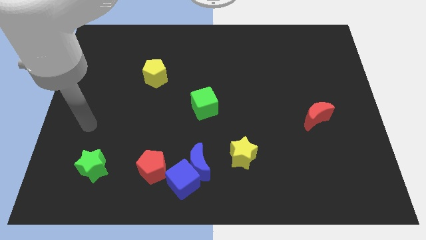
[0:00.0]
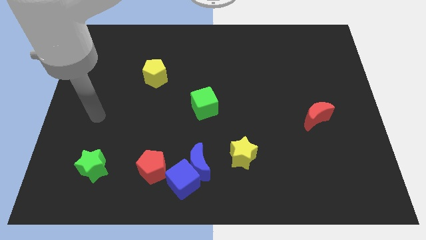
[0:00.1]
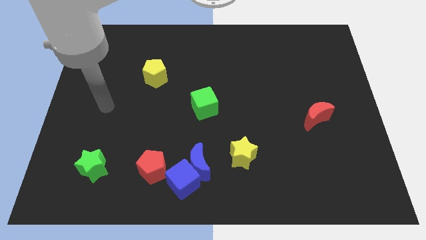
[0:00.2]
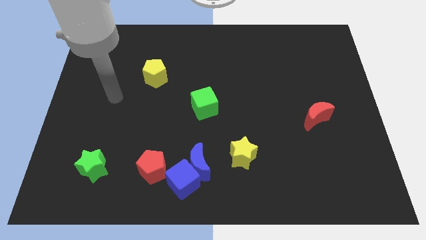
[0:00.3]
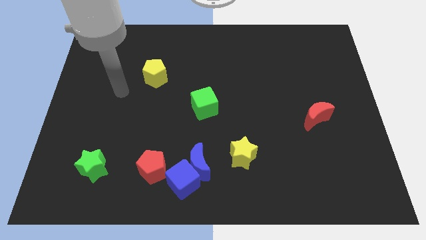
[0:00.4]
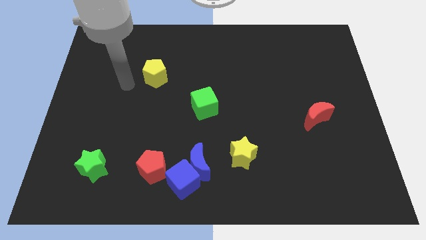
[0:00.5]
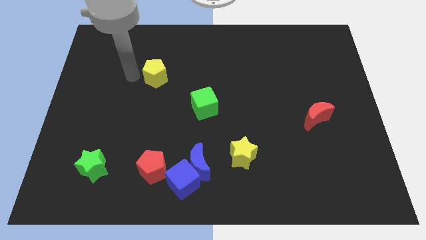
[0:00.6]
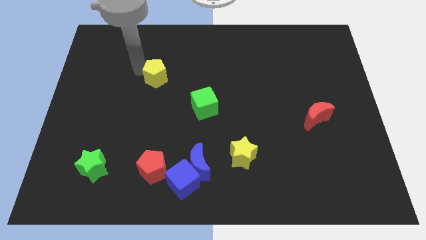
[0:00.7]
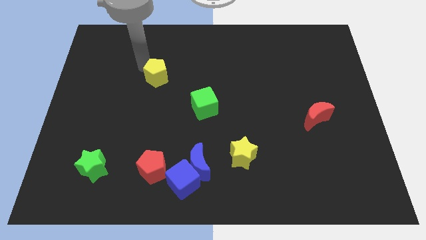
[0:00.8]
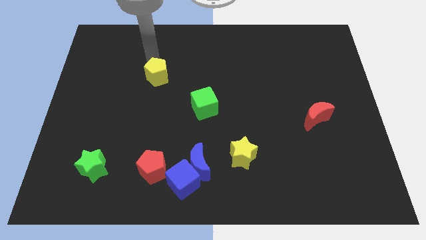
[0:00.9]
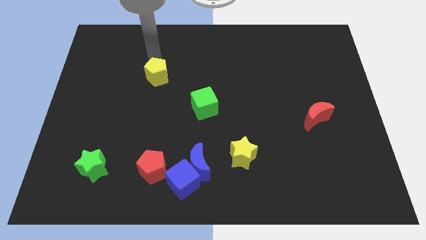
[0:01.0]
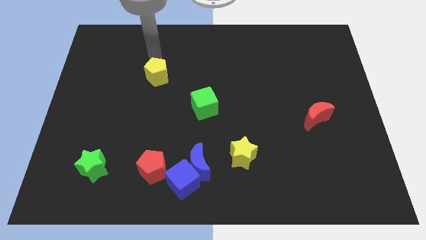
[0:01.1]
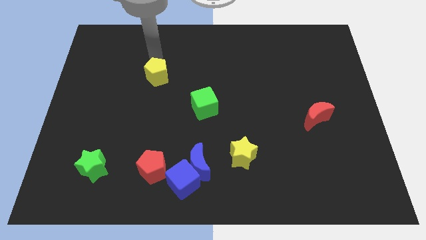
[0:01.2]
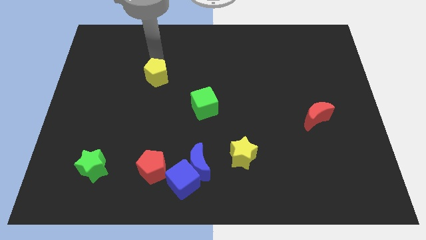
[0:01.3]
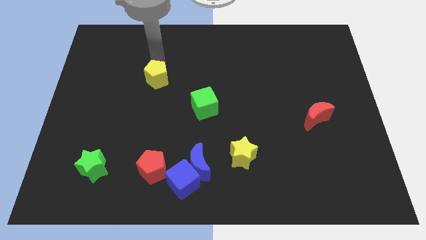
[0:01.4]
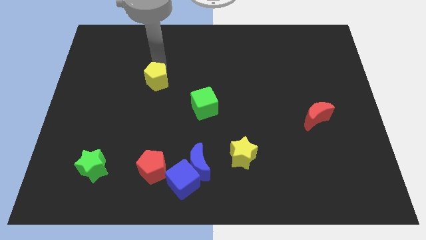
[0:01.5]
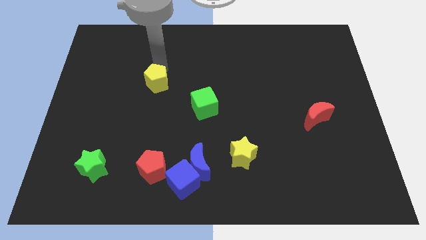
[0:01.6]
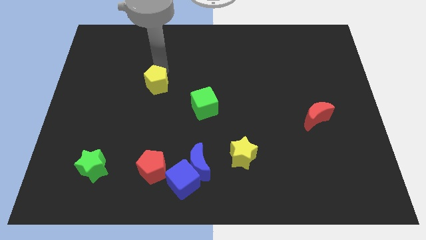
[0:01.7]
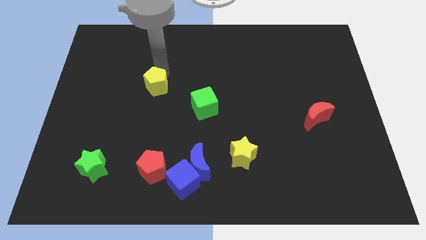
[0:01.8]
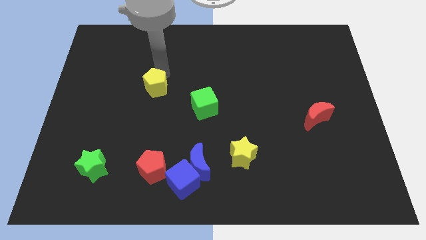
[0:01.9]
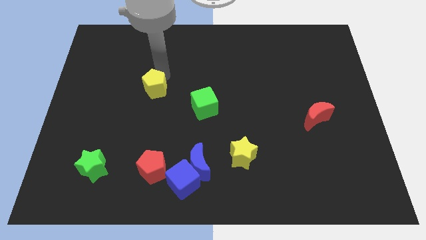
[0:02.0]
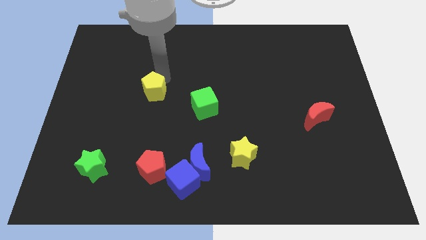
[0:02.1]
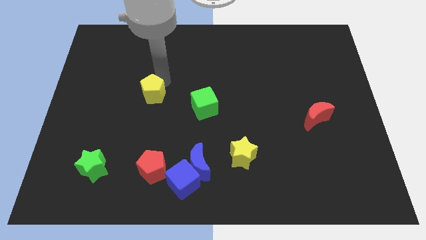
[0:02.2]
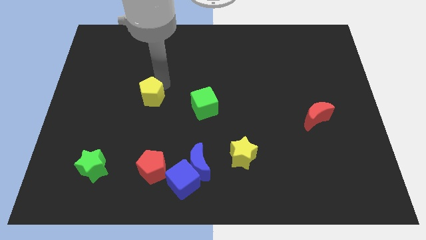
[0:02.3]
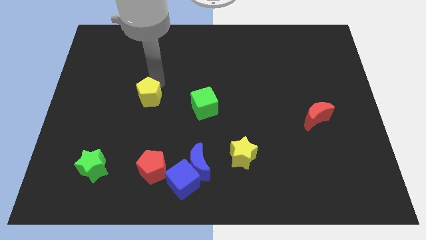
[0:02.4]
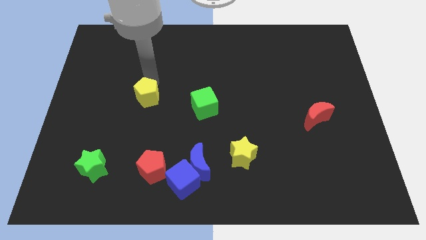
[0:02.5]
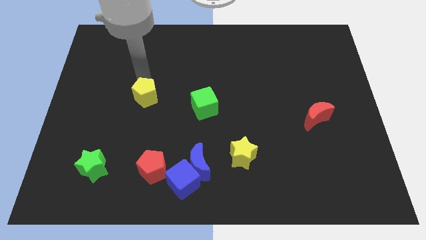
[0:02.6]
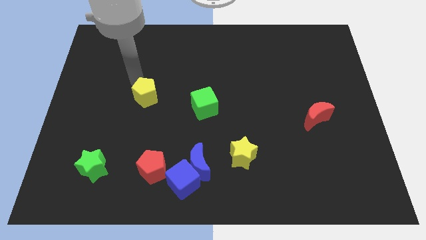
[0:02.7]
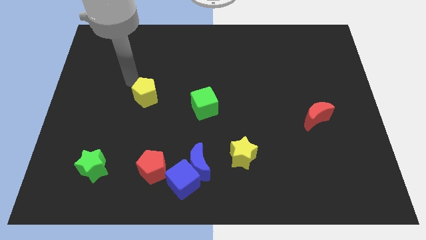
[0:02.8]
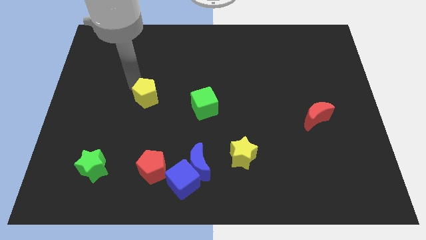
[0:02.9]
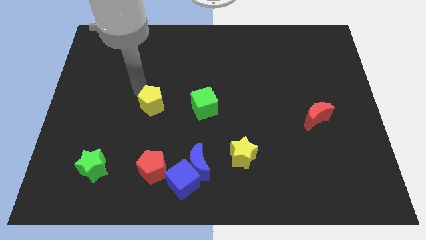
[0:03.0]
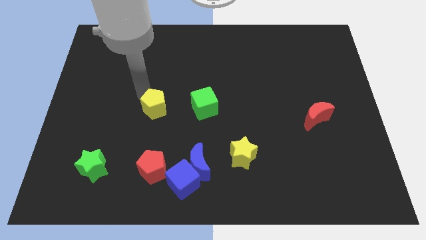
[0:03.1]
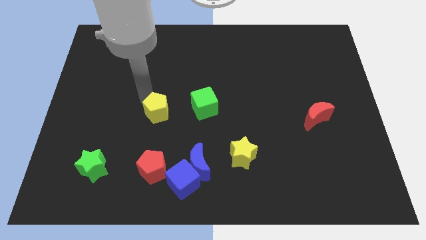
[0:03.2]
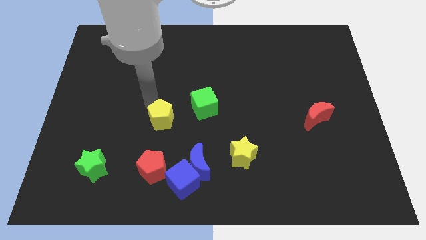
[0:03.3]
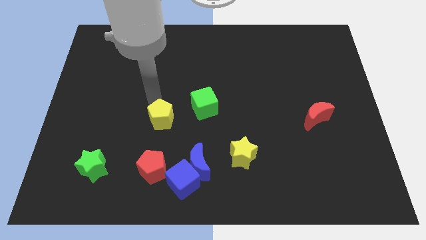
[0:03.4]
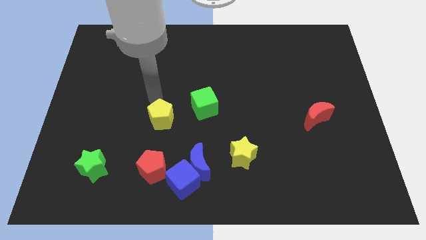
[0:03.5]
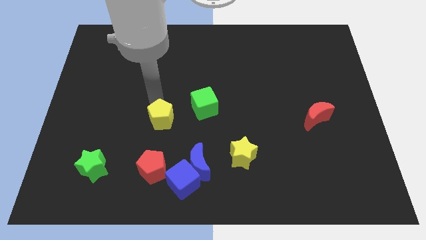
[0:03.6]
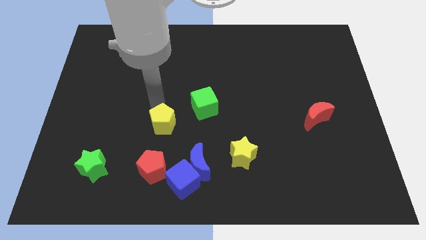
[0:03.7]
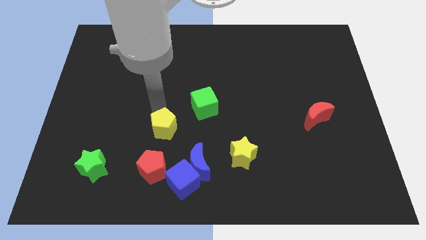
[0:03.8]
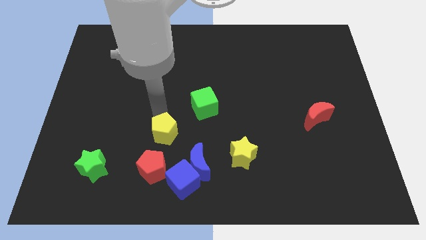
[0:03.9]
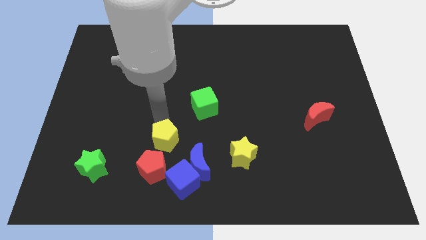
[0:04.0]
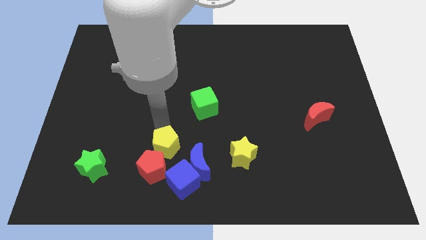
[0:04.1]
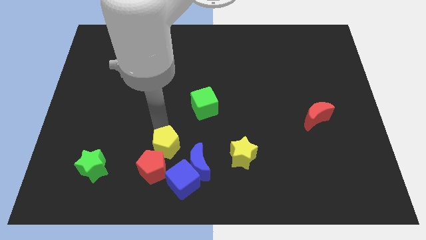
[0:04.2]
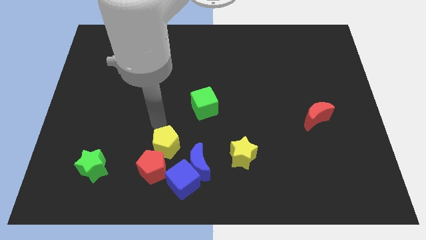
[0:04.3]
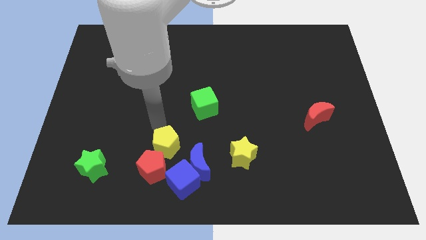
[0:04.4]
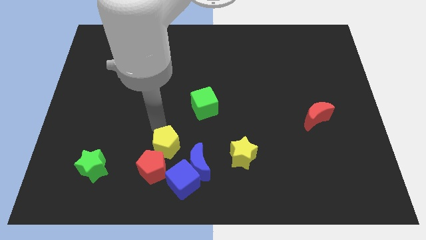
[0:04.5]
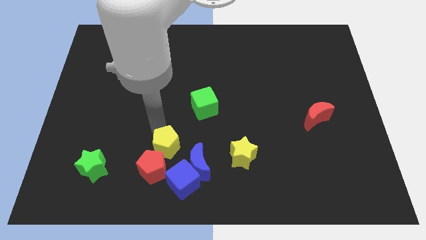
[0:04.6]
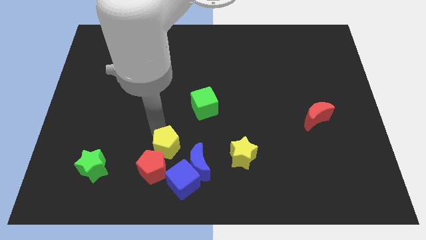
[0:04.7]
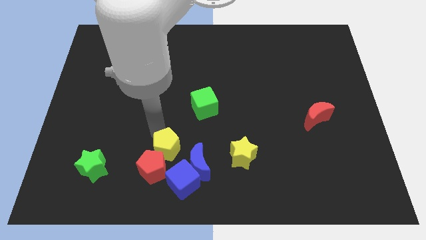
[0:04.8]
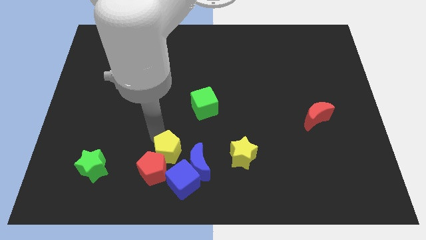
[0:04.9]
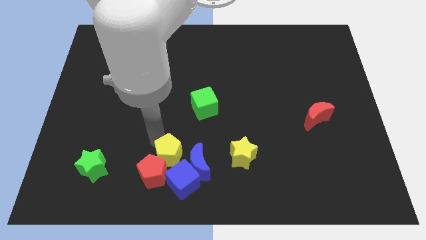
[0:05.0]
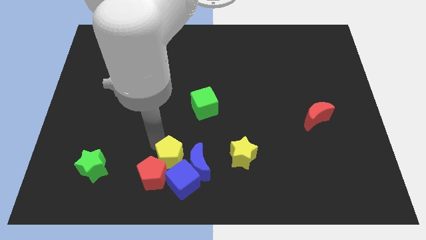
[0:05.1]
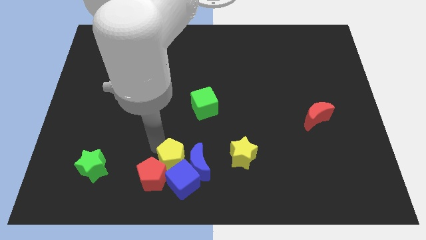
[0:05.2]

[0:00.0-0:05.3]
slide the yellow pentagon close to the blue cube

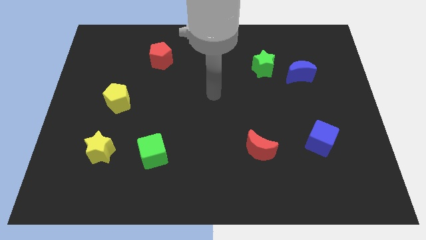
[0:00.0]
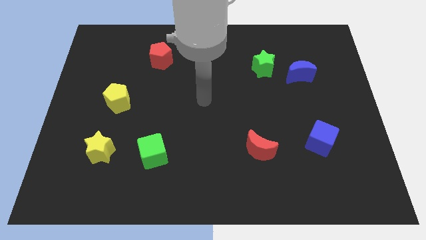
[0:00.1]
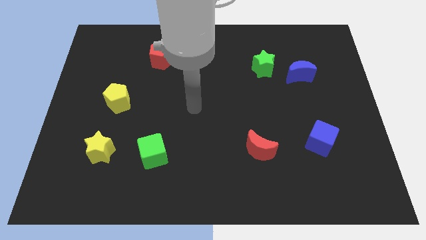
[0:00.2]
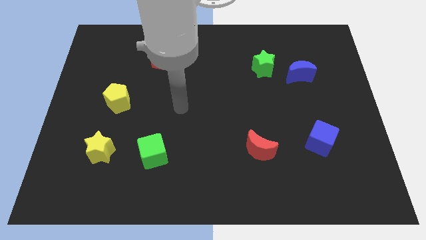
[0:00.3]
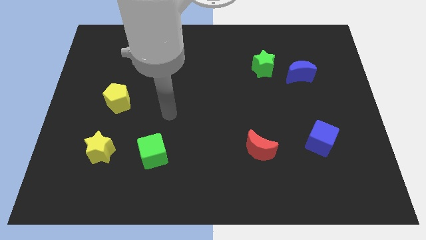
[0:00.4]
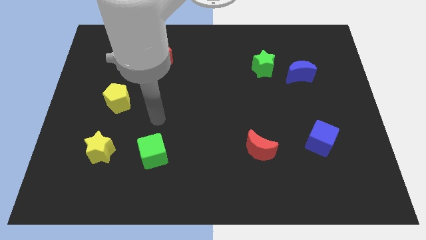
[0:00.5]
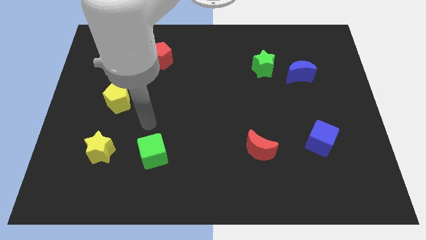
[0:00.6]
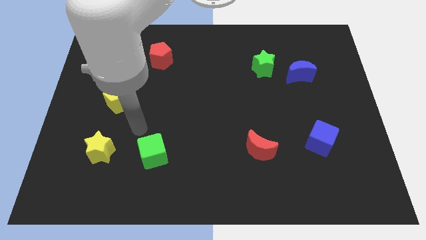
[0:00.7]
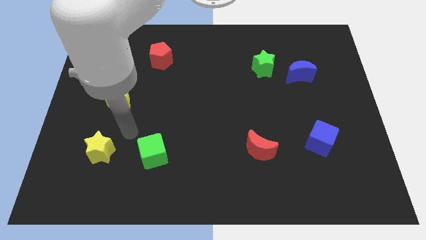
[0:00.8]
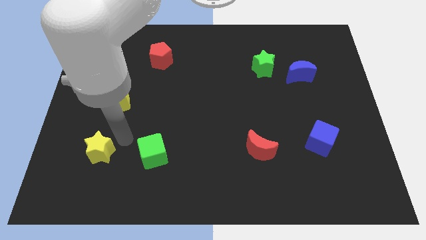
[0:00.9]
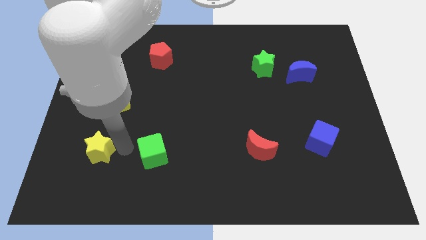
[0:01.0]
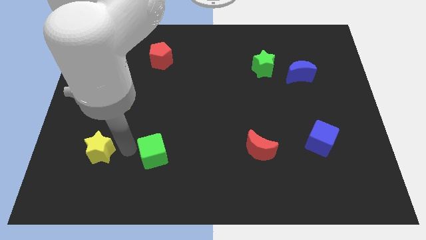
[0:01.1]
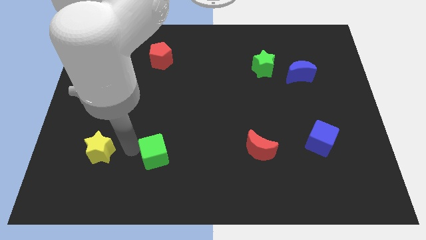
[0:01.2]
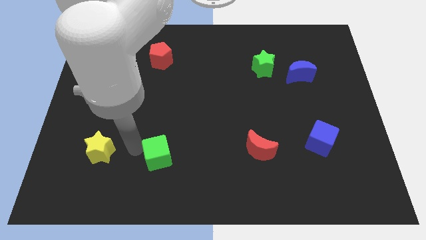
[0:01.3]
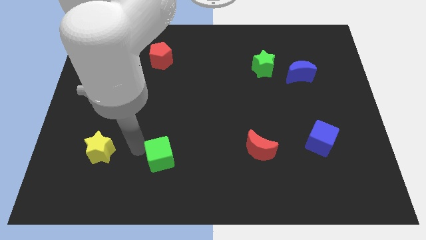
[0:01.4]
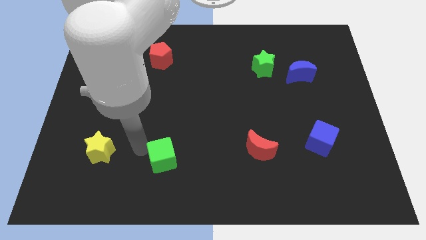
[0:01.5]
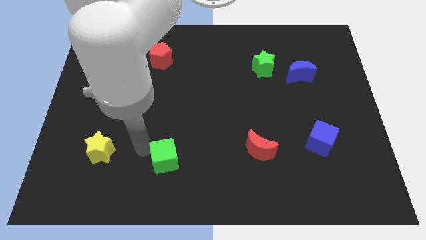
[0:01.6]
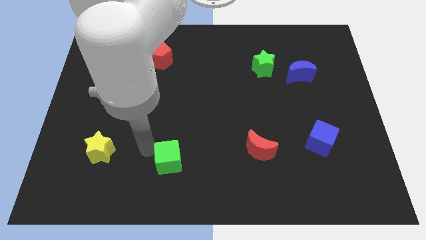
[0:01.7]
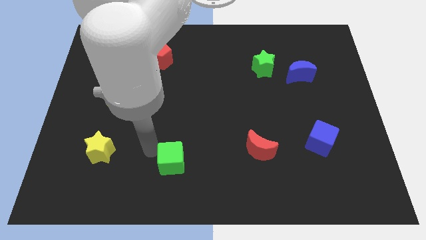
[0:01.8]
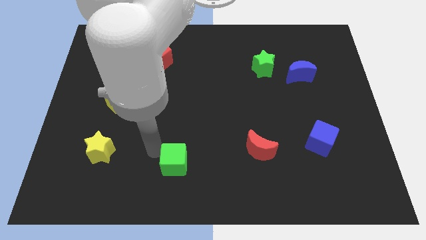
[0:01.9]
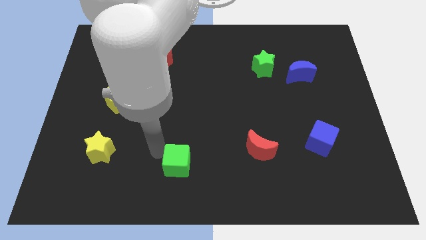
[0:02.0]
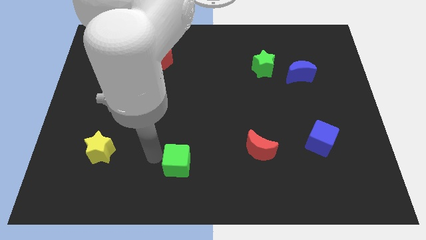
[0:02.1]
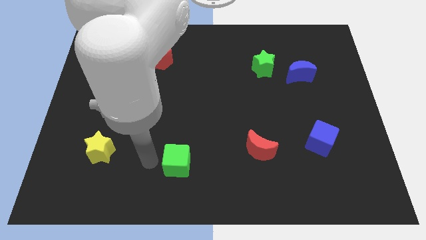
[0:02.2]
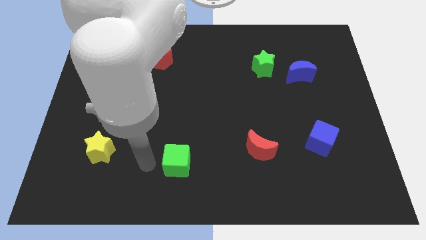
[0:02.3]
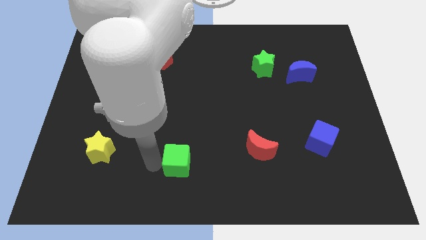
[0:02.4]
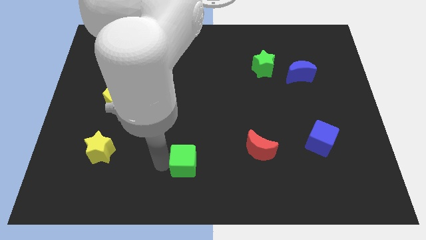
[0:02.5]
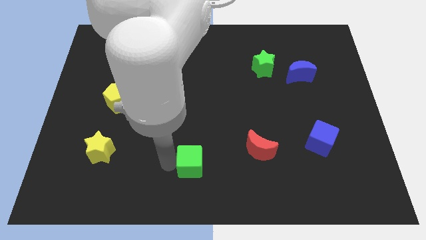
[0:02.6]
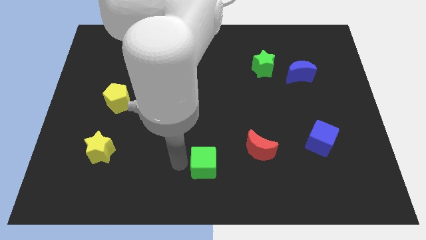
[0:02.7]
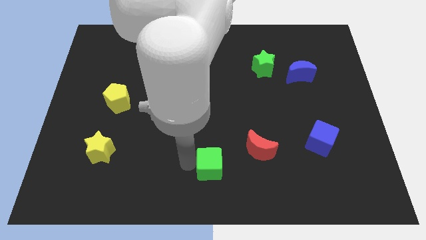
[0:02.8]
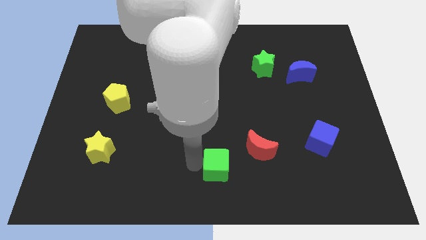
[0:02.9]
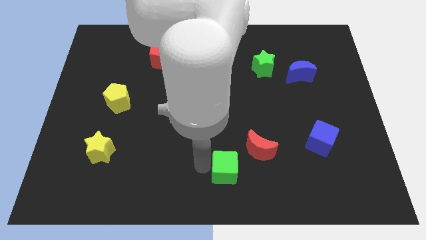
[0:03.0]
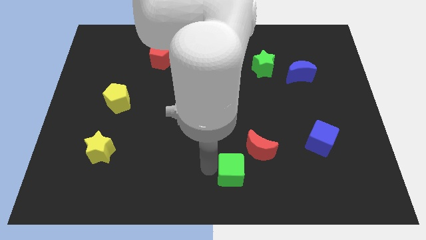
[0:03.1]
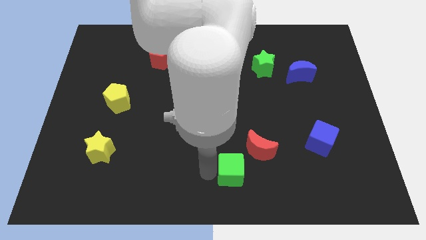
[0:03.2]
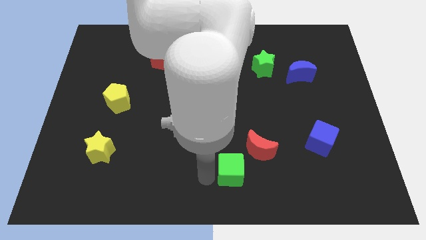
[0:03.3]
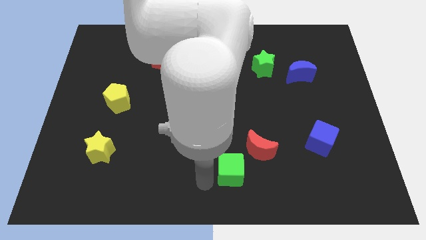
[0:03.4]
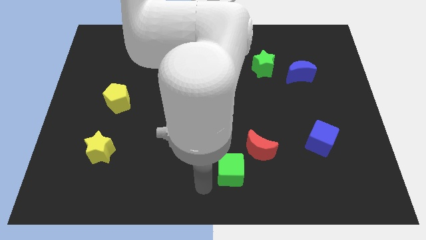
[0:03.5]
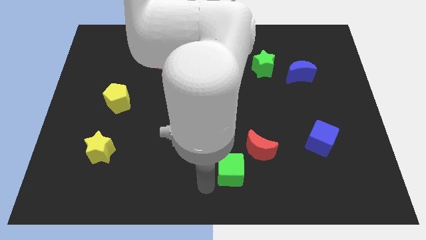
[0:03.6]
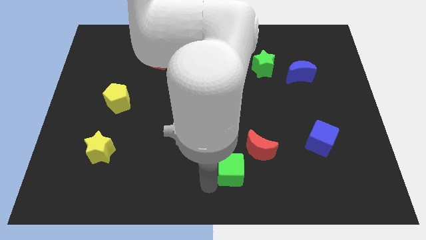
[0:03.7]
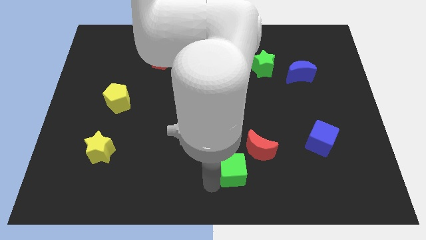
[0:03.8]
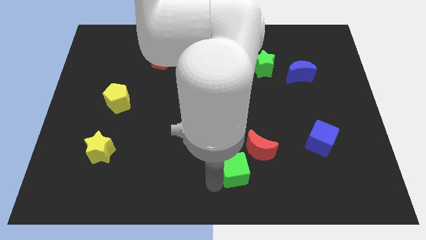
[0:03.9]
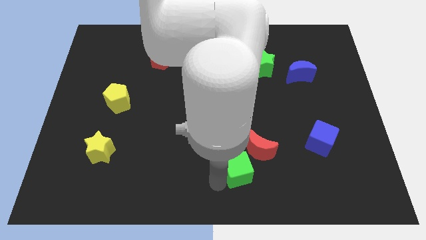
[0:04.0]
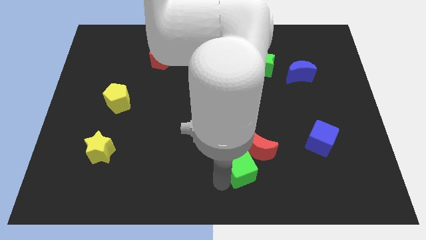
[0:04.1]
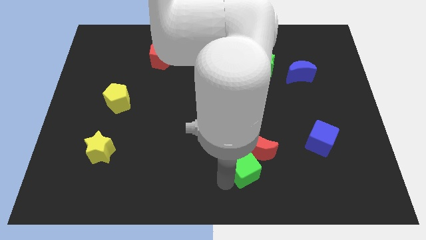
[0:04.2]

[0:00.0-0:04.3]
move the green cube to the red moon
